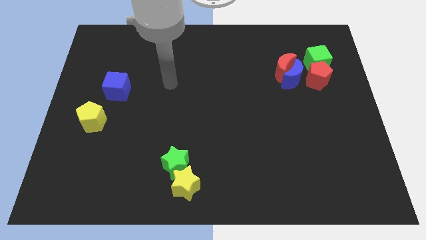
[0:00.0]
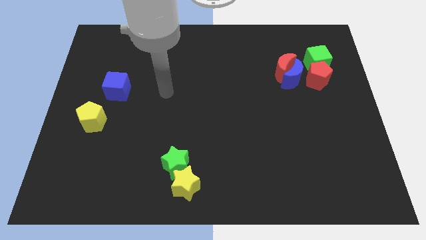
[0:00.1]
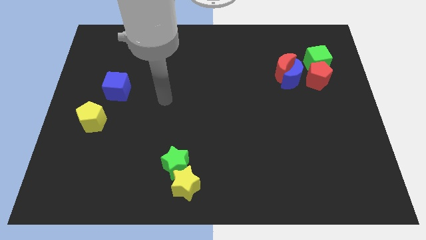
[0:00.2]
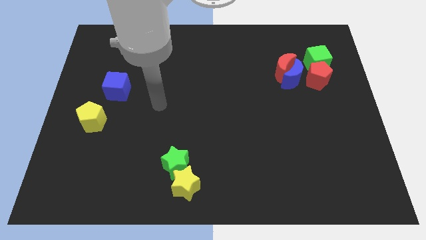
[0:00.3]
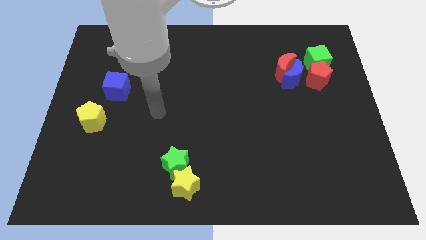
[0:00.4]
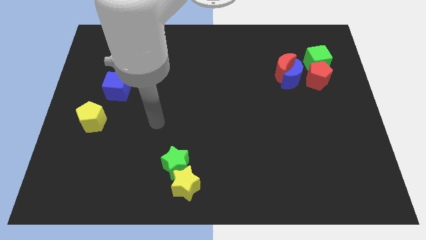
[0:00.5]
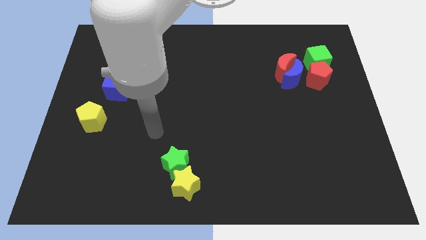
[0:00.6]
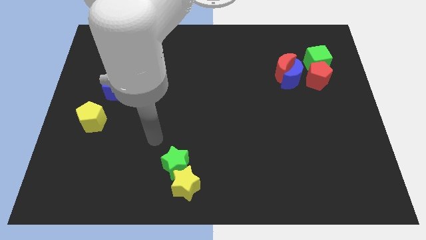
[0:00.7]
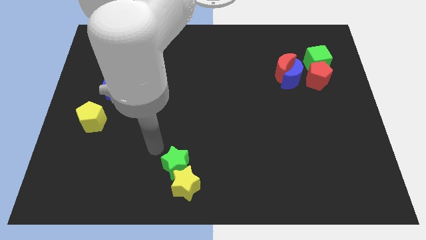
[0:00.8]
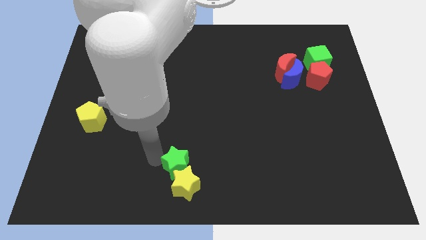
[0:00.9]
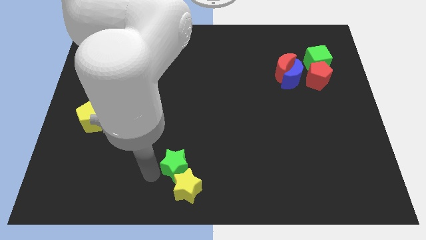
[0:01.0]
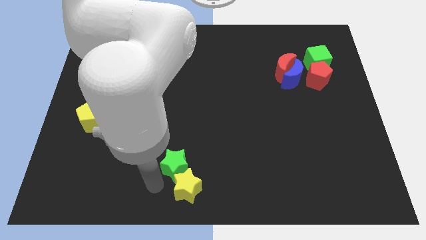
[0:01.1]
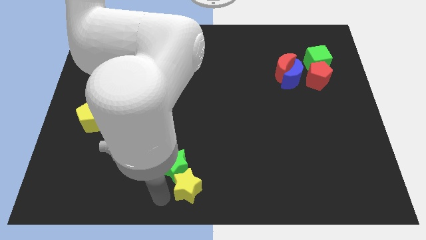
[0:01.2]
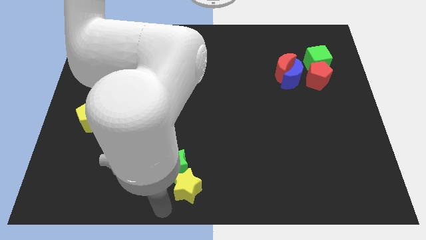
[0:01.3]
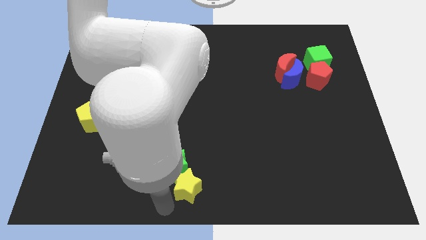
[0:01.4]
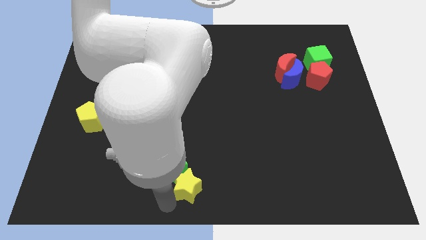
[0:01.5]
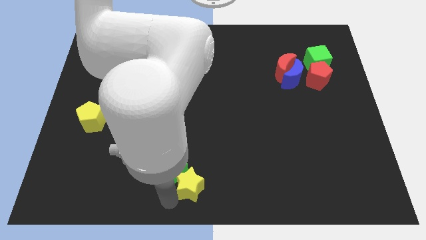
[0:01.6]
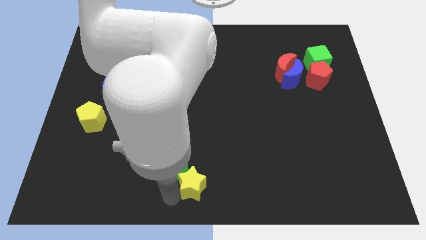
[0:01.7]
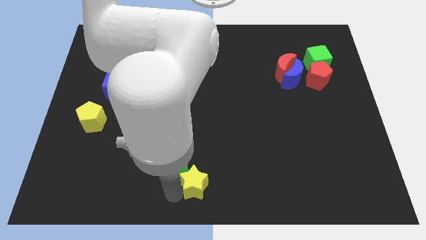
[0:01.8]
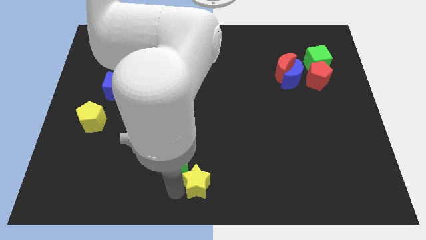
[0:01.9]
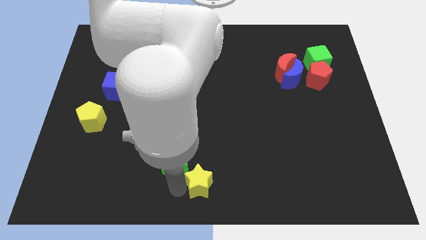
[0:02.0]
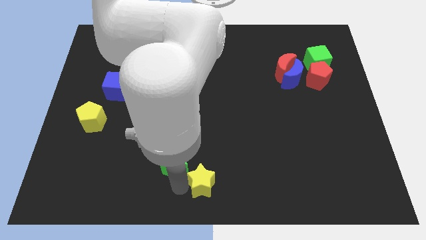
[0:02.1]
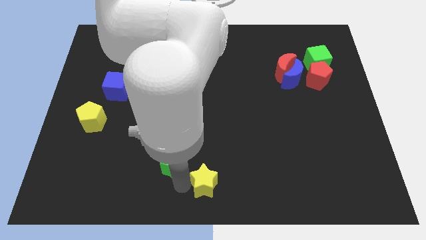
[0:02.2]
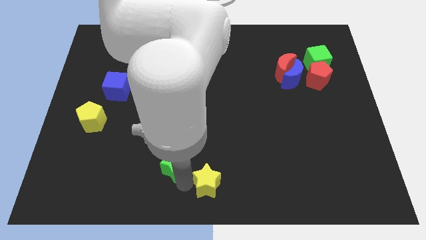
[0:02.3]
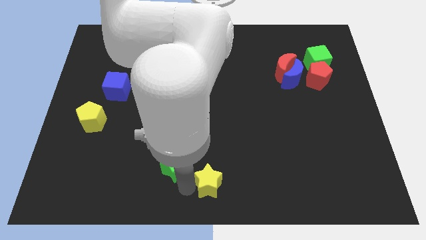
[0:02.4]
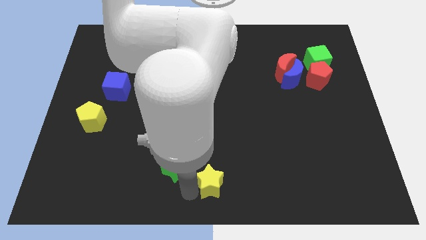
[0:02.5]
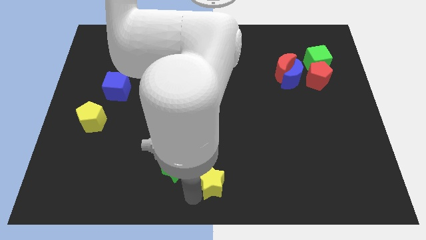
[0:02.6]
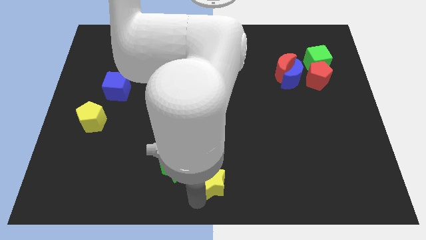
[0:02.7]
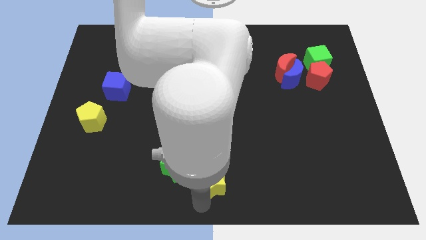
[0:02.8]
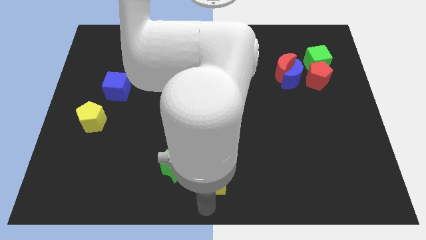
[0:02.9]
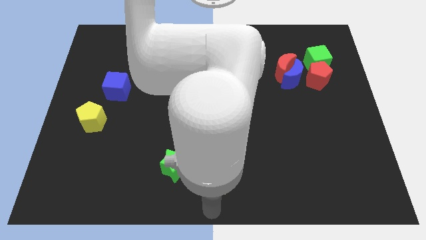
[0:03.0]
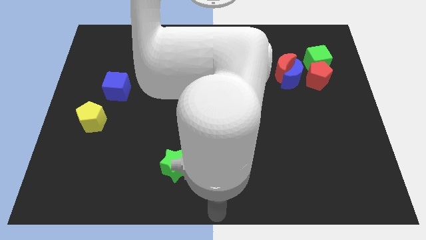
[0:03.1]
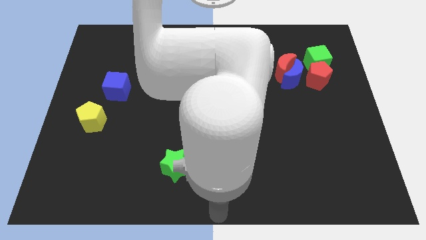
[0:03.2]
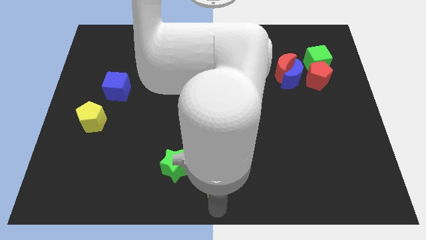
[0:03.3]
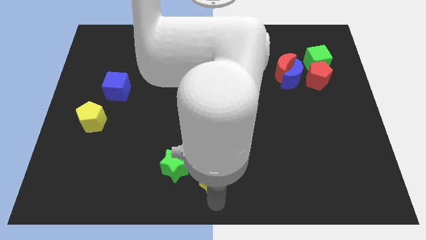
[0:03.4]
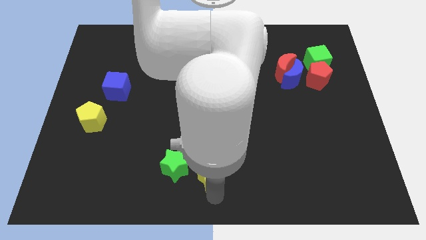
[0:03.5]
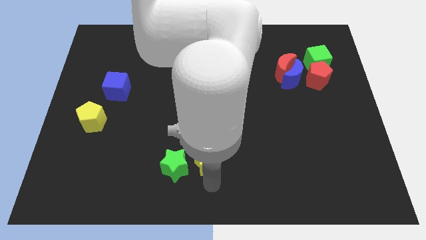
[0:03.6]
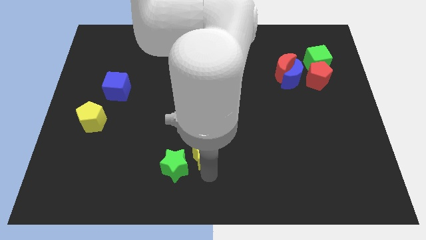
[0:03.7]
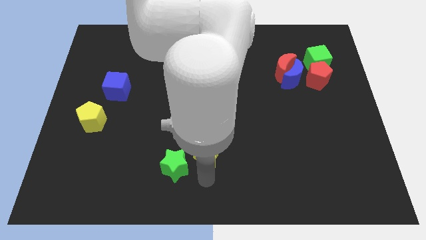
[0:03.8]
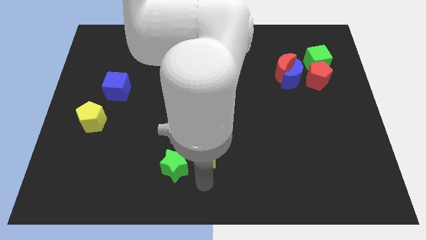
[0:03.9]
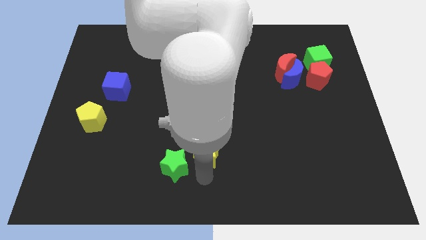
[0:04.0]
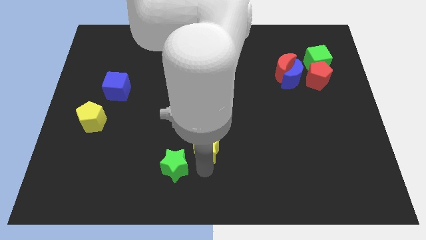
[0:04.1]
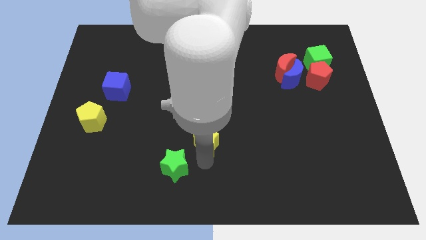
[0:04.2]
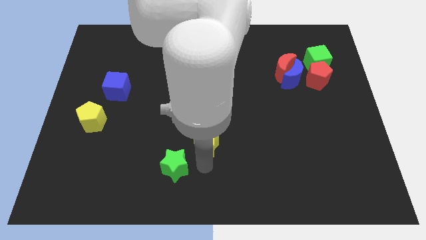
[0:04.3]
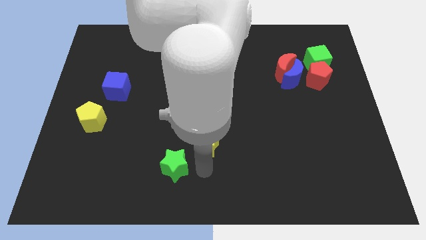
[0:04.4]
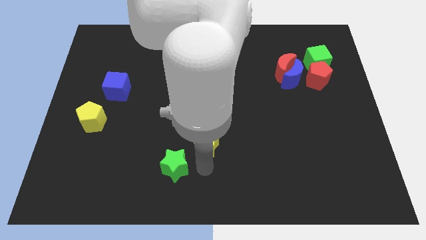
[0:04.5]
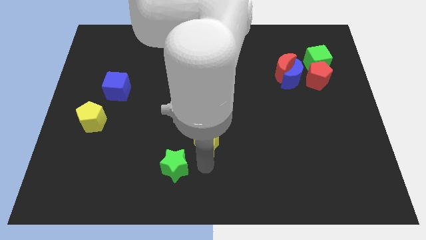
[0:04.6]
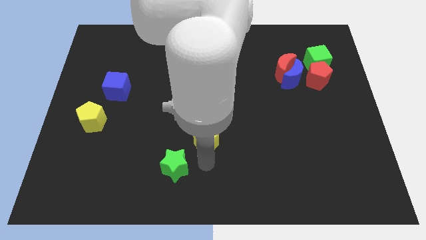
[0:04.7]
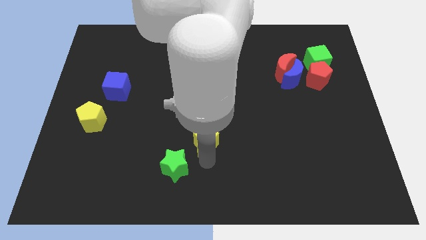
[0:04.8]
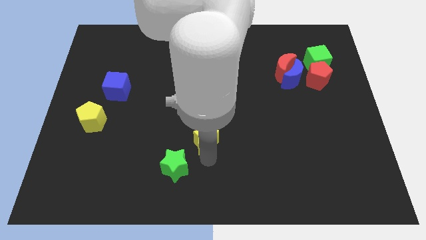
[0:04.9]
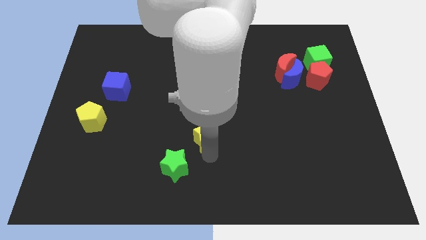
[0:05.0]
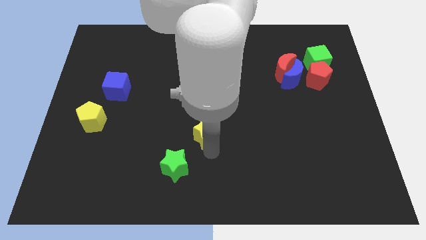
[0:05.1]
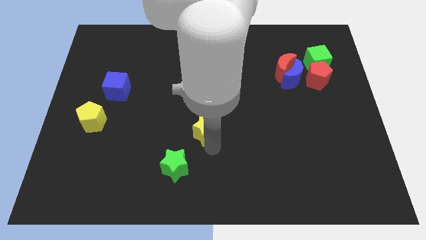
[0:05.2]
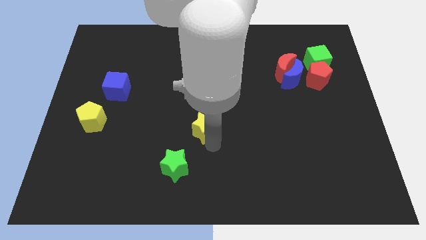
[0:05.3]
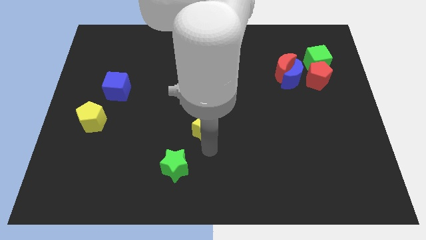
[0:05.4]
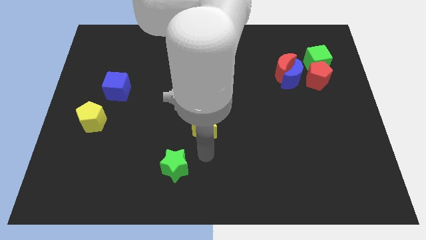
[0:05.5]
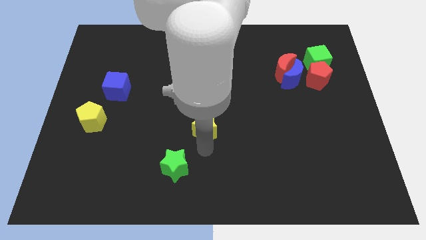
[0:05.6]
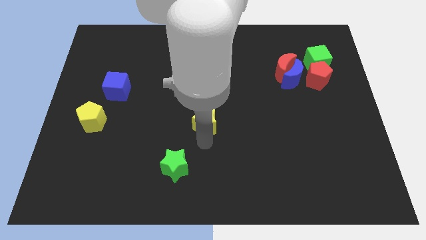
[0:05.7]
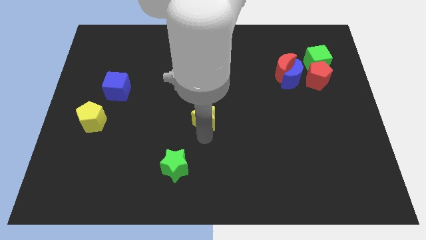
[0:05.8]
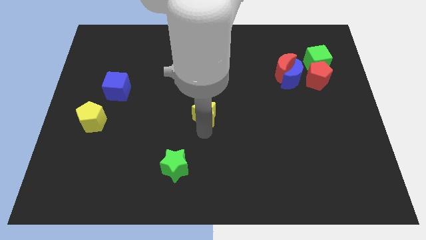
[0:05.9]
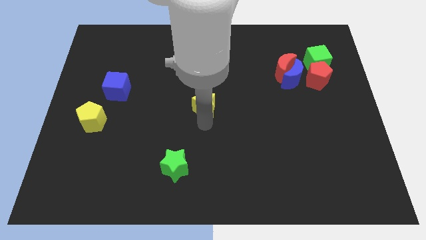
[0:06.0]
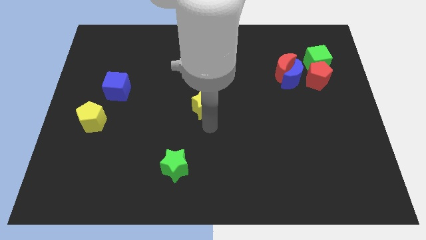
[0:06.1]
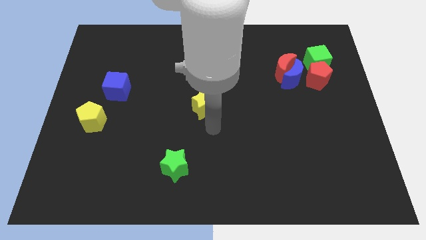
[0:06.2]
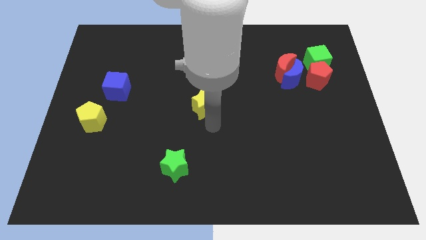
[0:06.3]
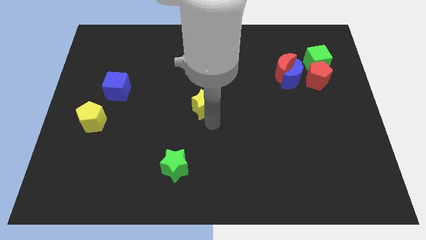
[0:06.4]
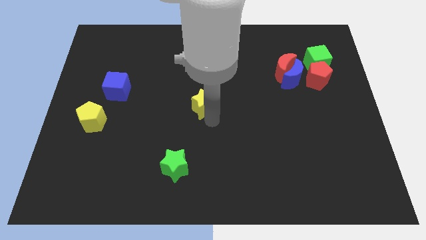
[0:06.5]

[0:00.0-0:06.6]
push the yellow star up

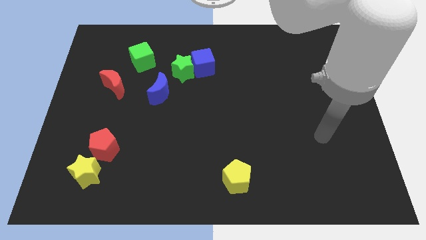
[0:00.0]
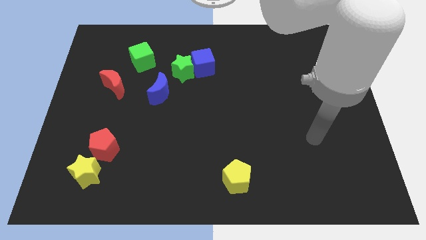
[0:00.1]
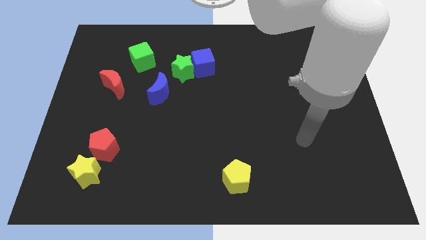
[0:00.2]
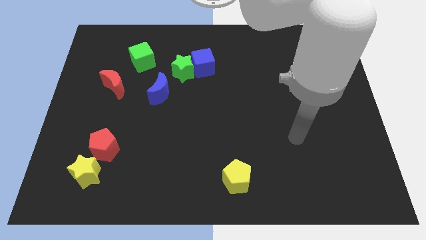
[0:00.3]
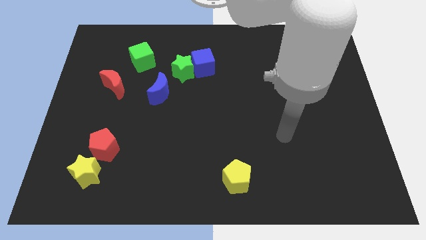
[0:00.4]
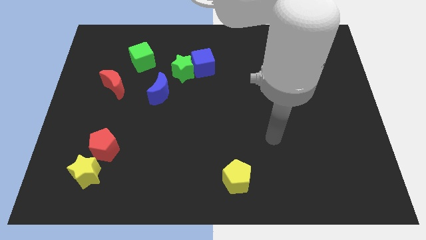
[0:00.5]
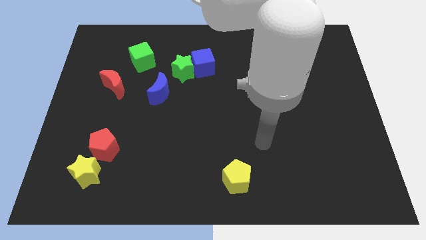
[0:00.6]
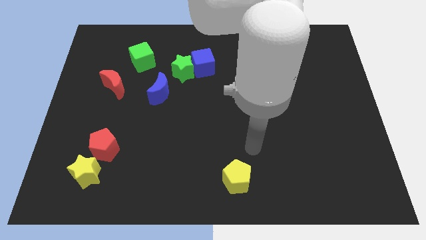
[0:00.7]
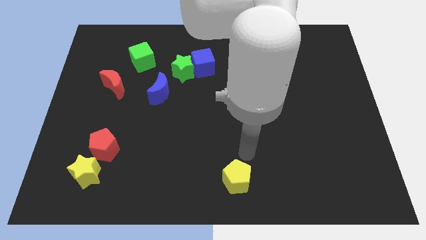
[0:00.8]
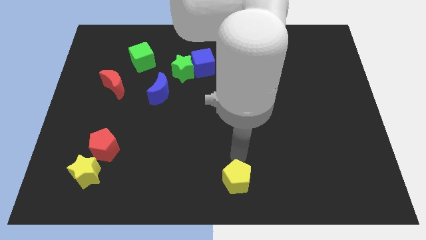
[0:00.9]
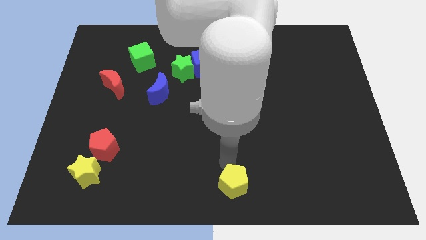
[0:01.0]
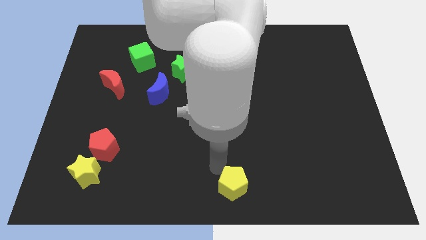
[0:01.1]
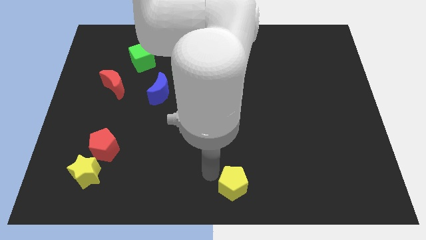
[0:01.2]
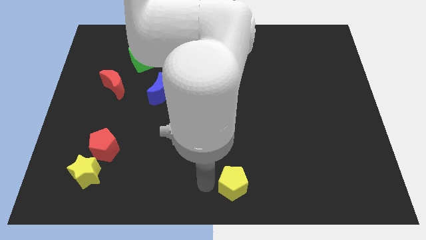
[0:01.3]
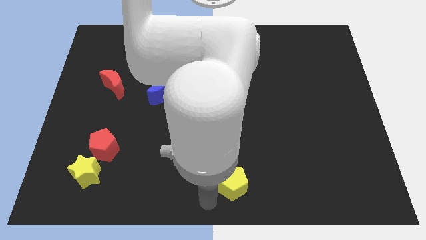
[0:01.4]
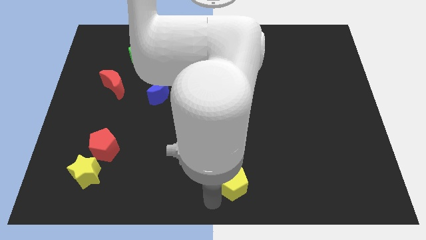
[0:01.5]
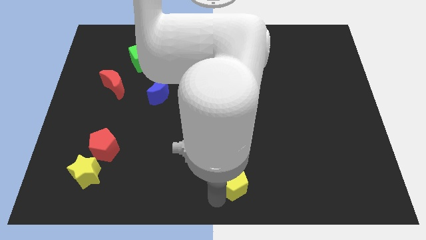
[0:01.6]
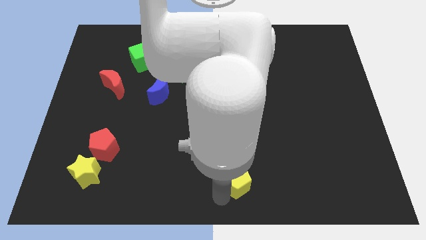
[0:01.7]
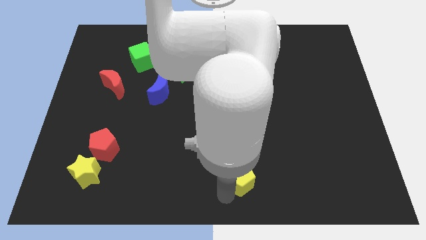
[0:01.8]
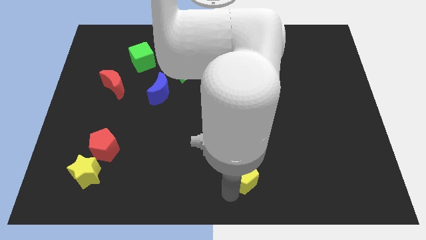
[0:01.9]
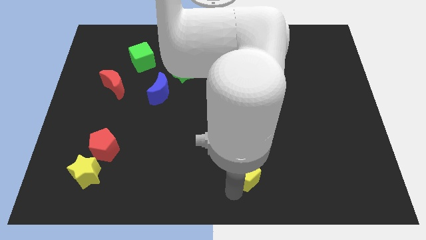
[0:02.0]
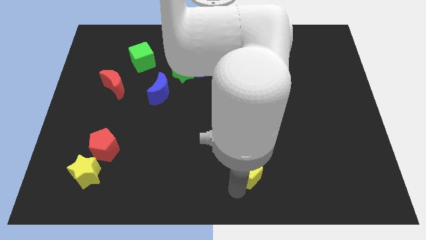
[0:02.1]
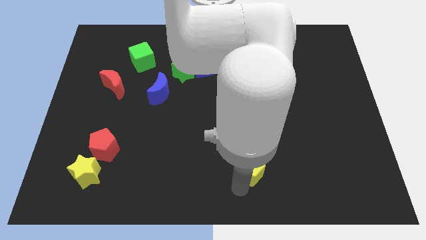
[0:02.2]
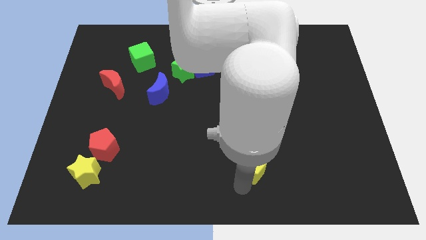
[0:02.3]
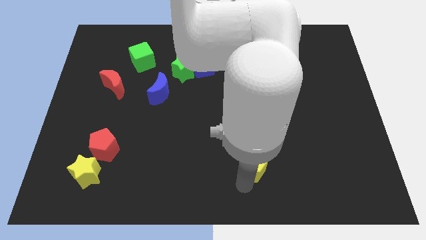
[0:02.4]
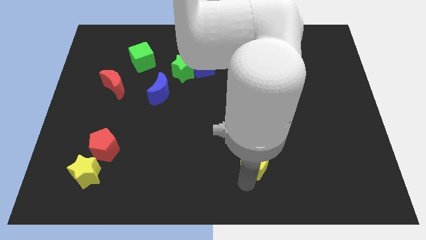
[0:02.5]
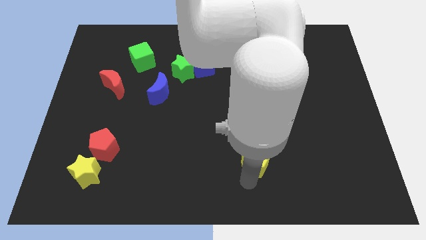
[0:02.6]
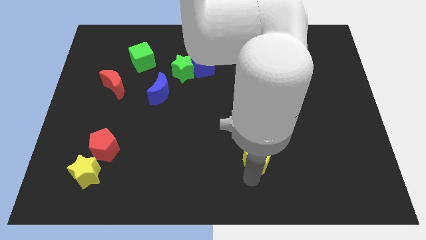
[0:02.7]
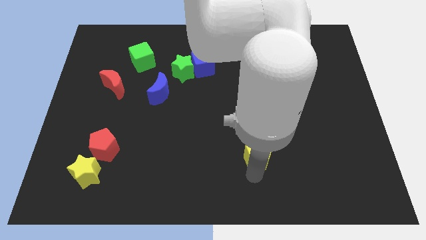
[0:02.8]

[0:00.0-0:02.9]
slightly slide the yellow pentagon up and then right
